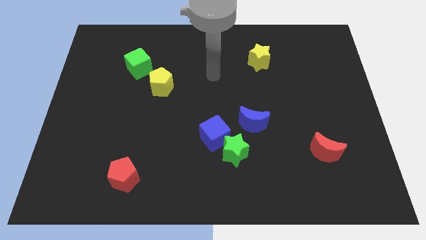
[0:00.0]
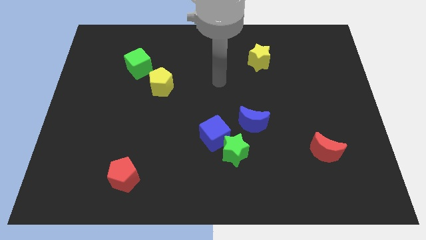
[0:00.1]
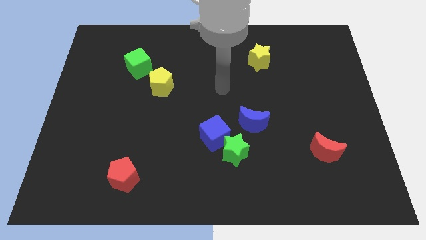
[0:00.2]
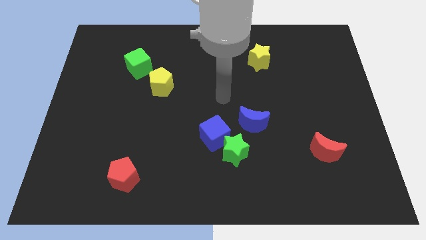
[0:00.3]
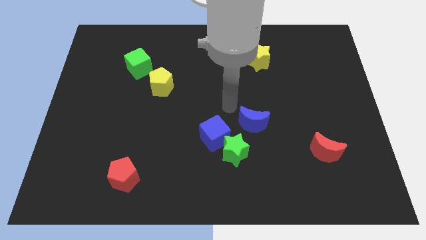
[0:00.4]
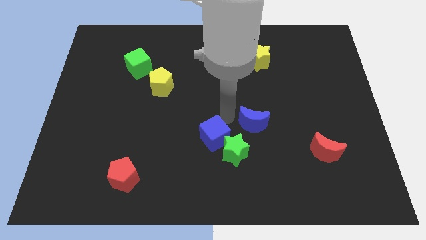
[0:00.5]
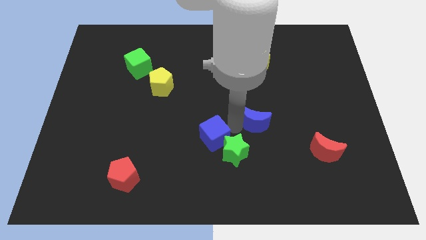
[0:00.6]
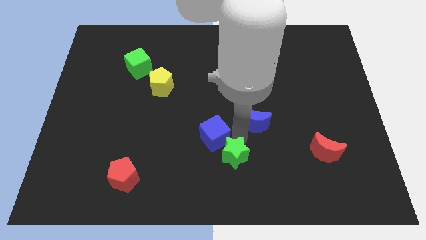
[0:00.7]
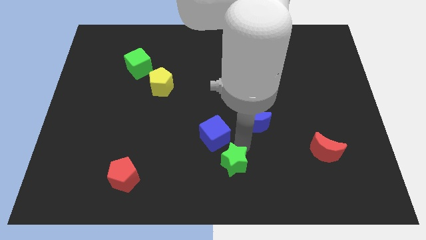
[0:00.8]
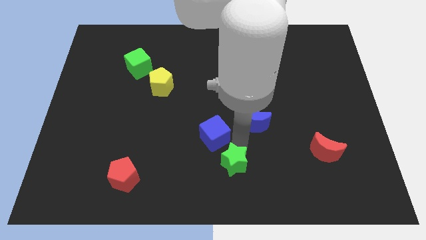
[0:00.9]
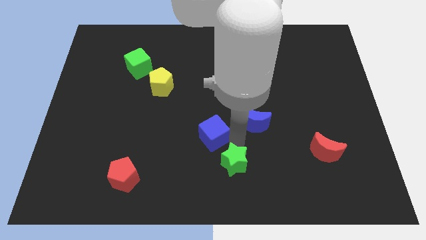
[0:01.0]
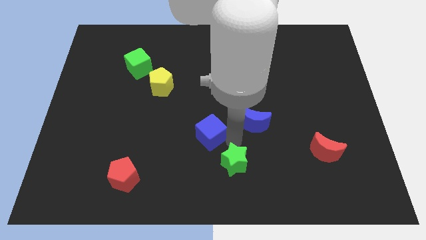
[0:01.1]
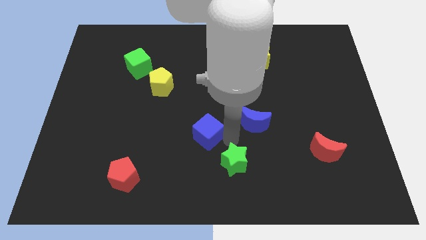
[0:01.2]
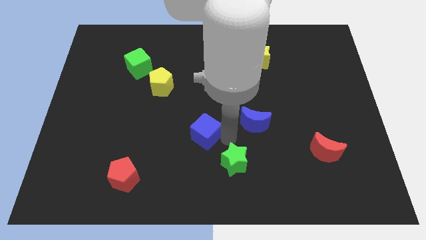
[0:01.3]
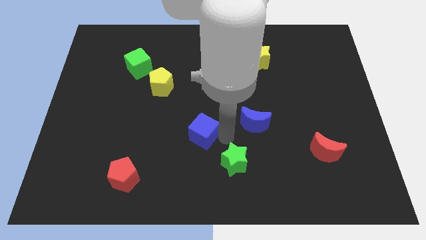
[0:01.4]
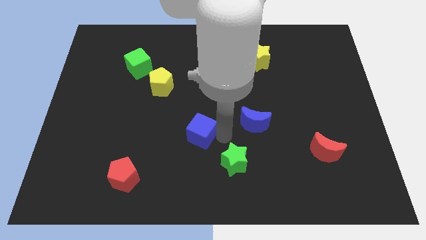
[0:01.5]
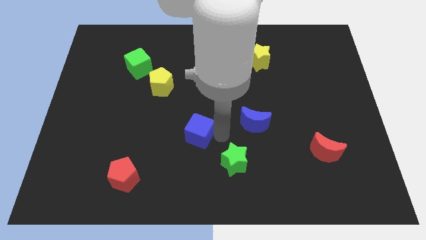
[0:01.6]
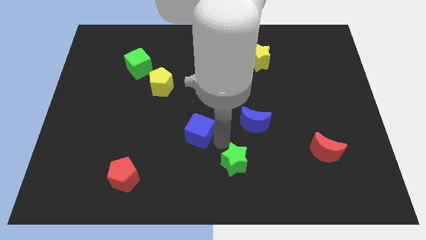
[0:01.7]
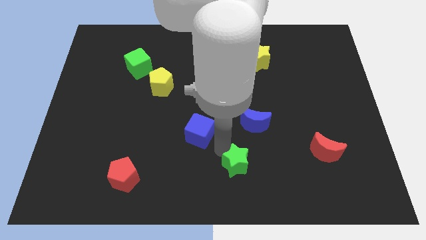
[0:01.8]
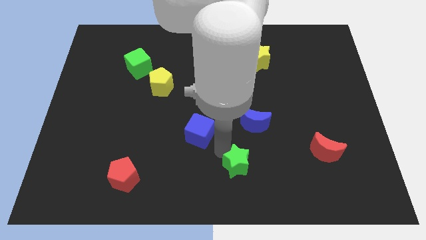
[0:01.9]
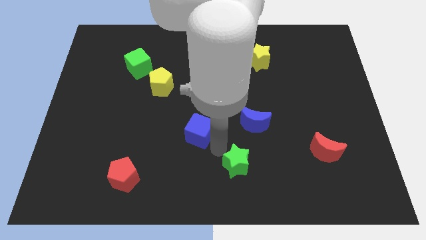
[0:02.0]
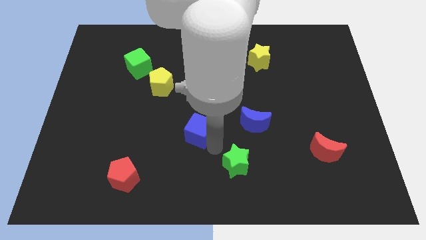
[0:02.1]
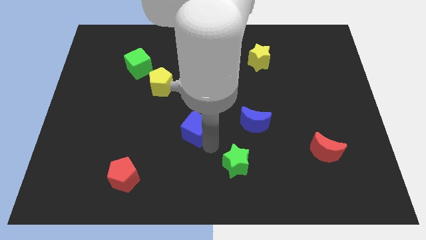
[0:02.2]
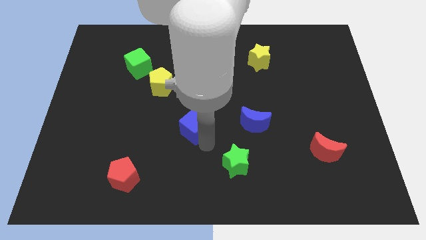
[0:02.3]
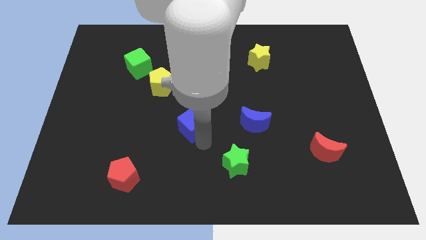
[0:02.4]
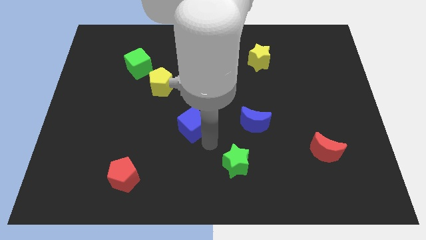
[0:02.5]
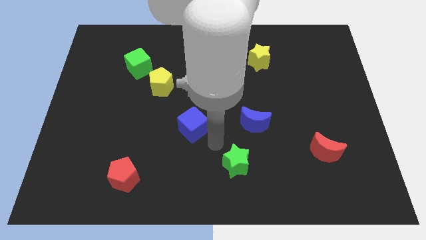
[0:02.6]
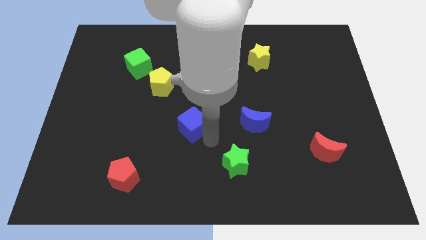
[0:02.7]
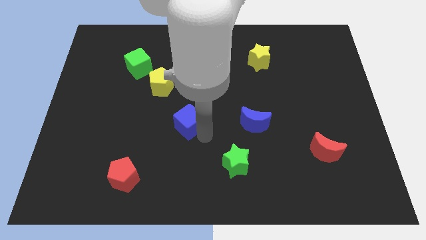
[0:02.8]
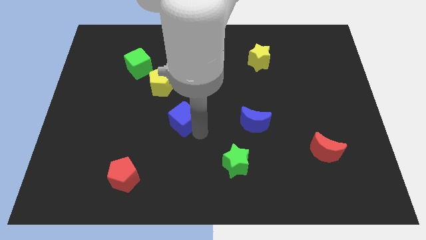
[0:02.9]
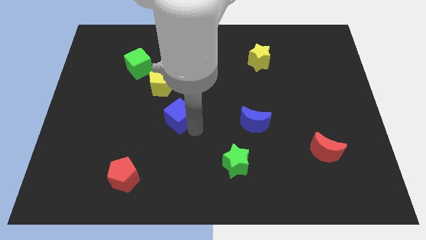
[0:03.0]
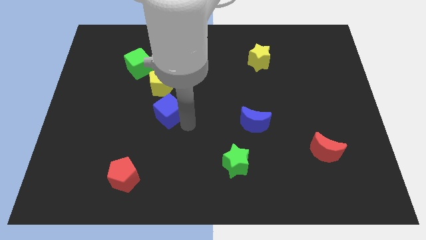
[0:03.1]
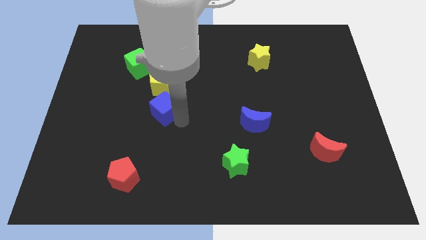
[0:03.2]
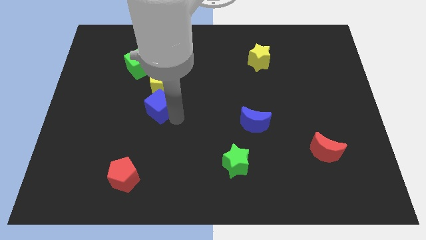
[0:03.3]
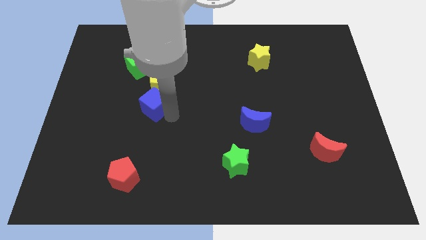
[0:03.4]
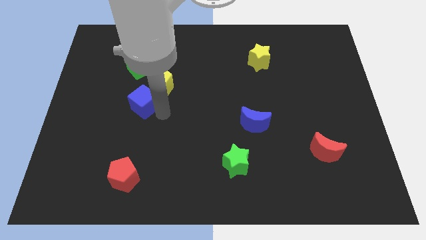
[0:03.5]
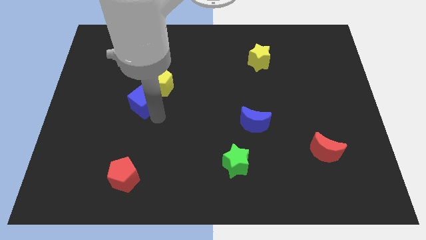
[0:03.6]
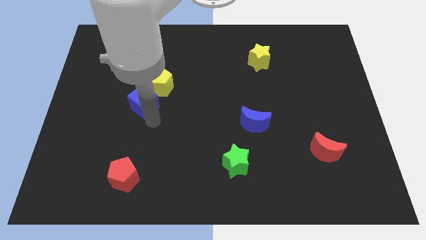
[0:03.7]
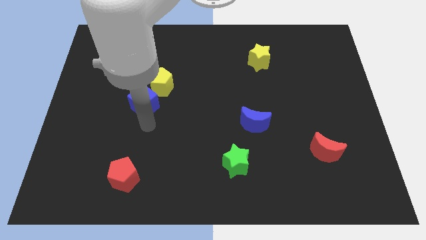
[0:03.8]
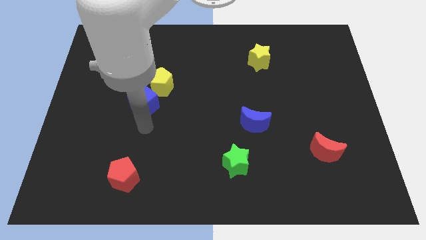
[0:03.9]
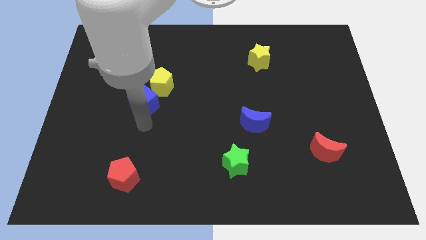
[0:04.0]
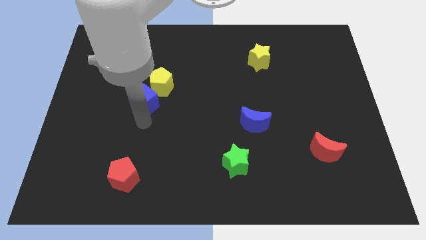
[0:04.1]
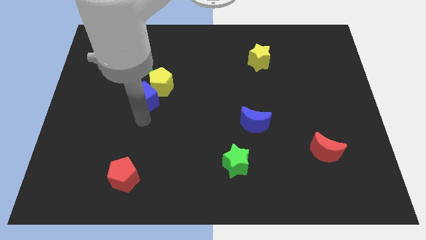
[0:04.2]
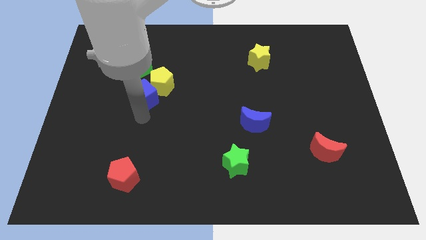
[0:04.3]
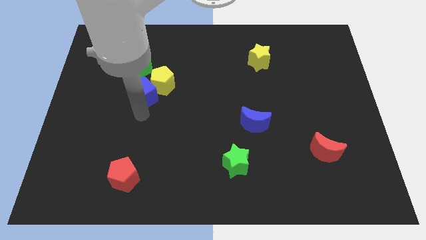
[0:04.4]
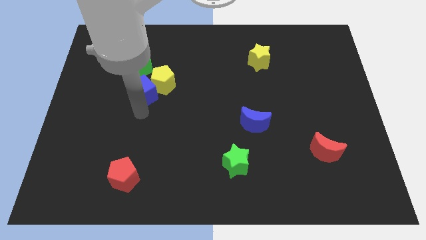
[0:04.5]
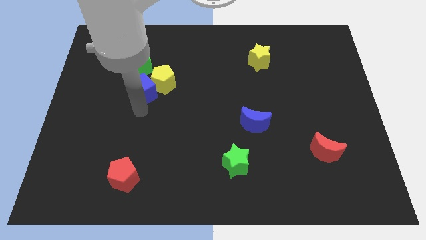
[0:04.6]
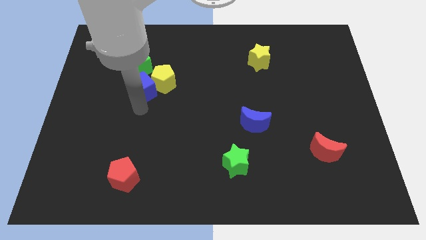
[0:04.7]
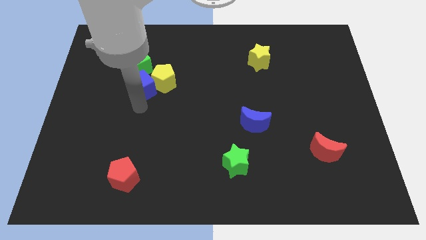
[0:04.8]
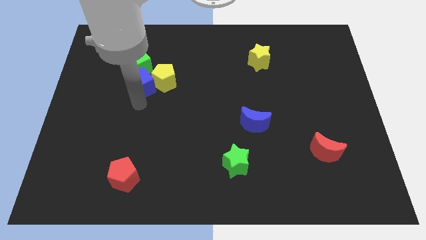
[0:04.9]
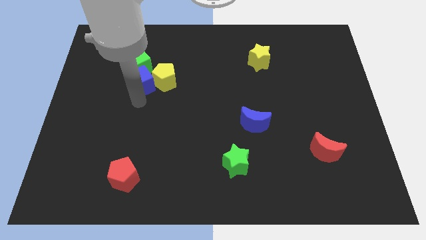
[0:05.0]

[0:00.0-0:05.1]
move the blue cube close to the green cube

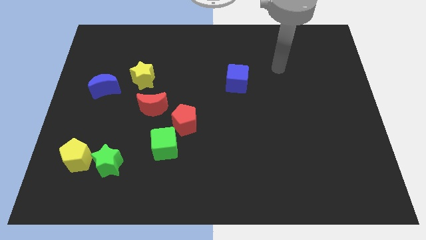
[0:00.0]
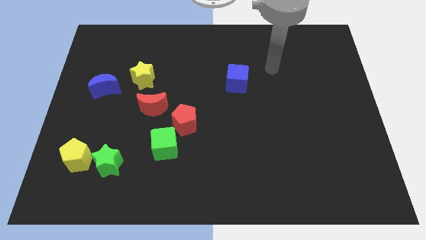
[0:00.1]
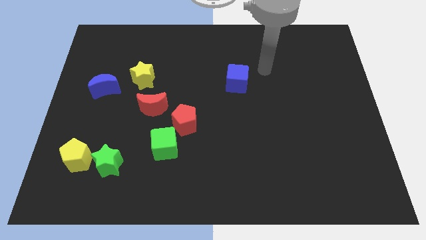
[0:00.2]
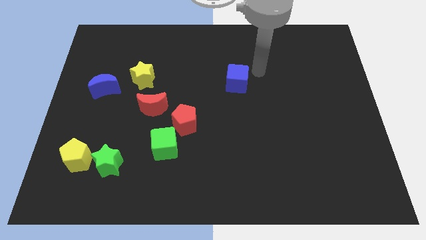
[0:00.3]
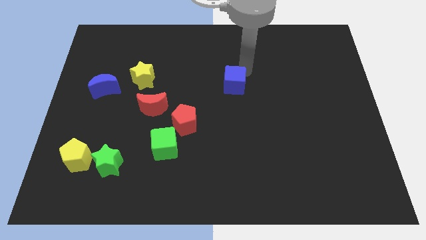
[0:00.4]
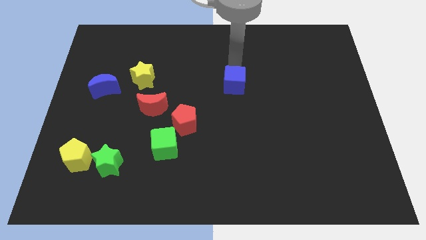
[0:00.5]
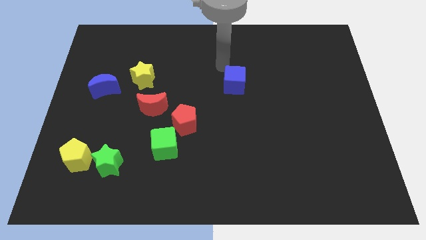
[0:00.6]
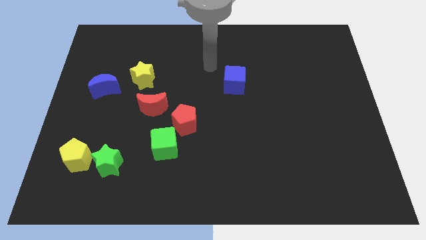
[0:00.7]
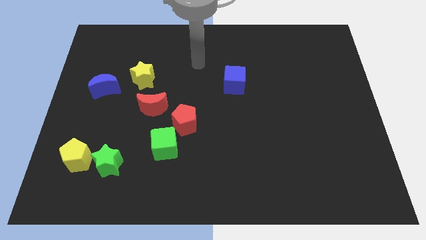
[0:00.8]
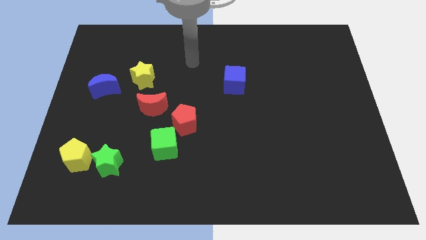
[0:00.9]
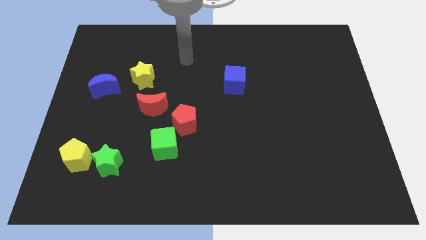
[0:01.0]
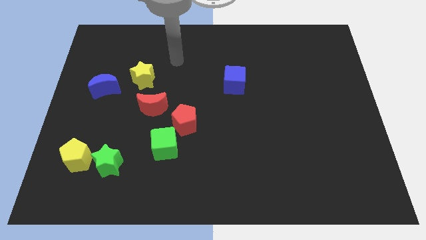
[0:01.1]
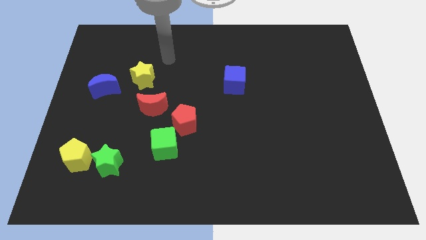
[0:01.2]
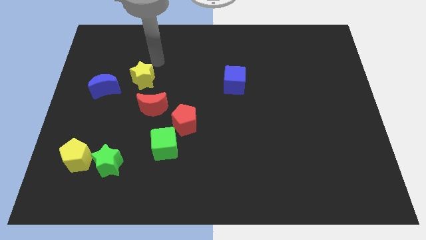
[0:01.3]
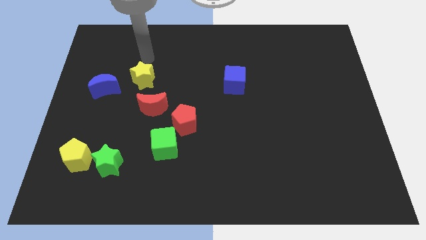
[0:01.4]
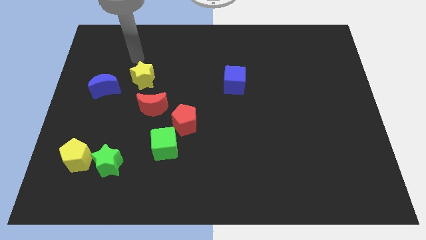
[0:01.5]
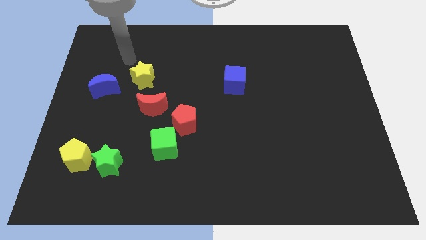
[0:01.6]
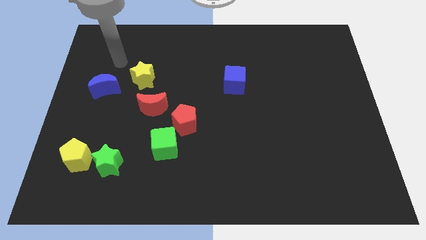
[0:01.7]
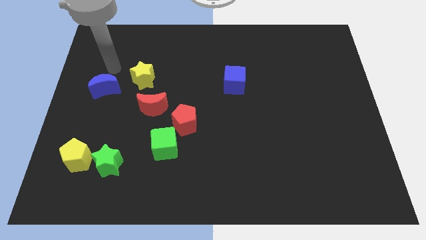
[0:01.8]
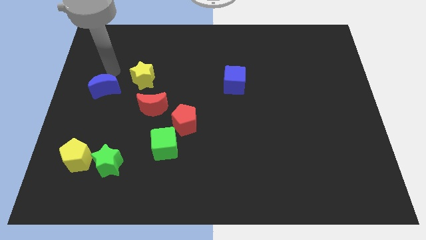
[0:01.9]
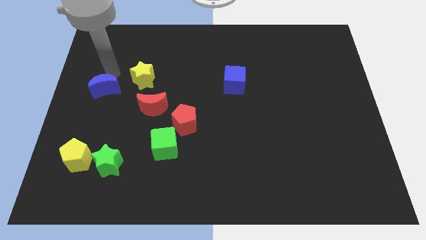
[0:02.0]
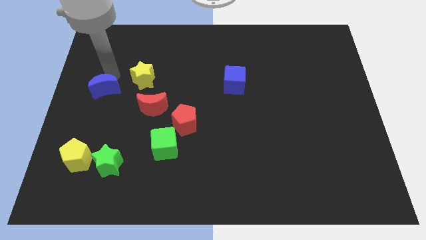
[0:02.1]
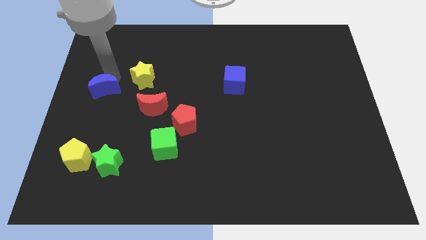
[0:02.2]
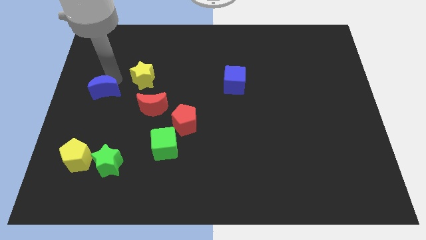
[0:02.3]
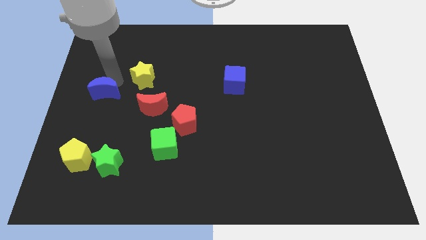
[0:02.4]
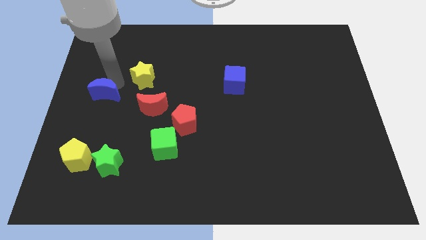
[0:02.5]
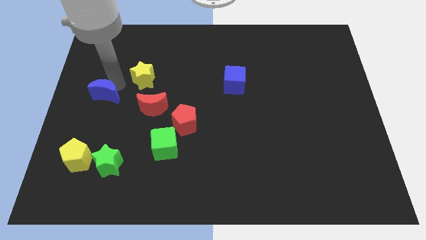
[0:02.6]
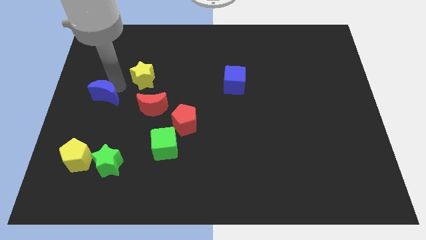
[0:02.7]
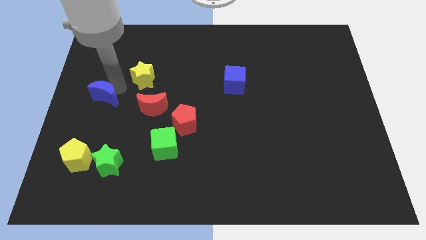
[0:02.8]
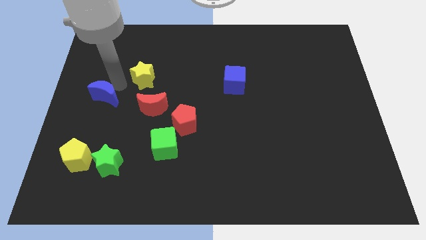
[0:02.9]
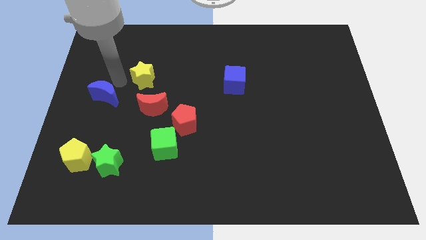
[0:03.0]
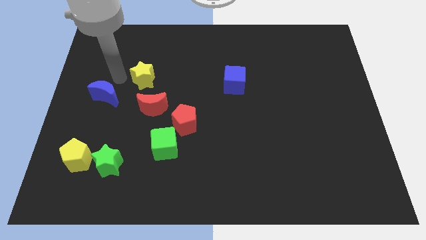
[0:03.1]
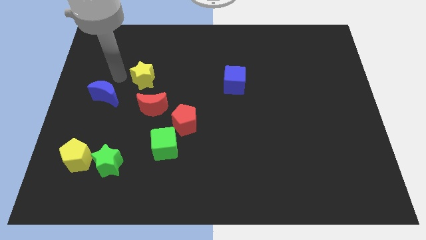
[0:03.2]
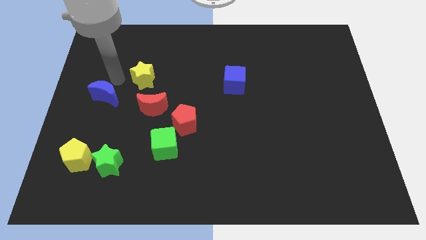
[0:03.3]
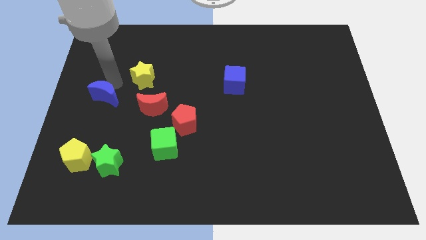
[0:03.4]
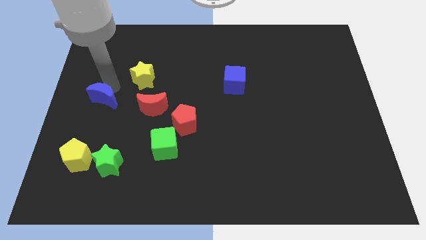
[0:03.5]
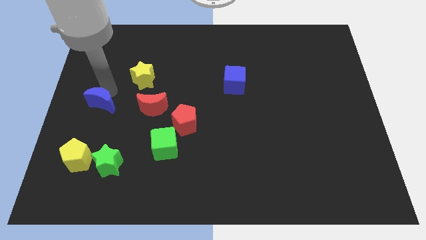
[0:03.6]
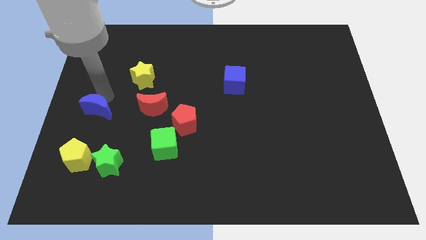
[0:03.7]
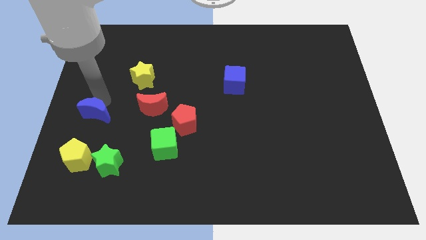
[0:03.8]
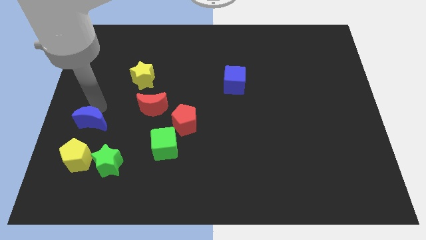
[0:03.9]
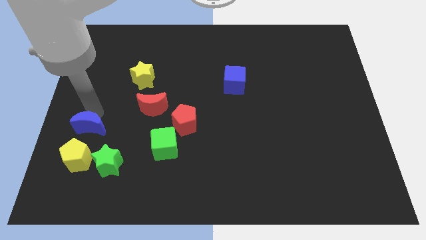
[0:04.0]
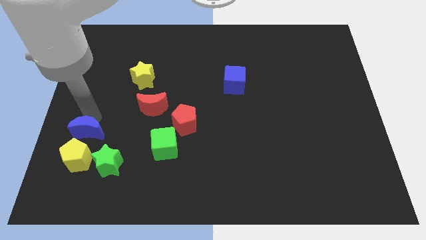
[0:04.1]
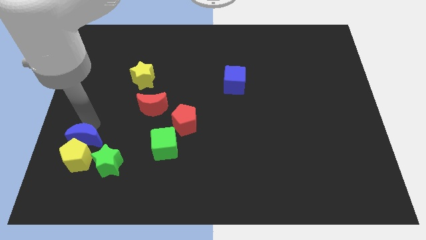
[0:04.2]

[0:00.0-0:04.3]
put the blue moon towards the yellow pentagon
